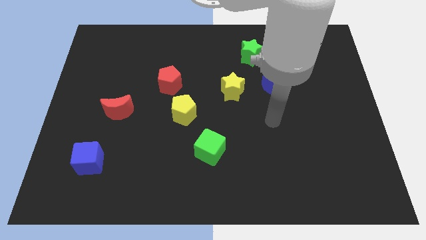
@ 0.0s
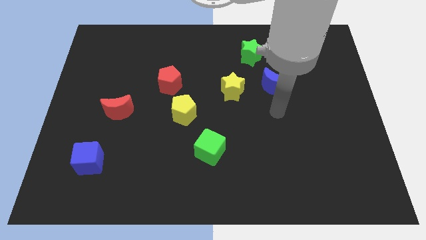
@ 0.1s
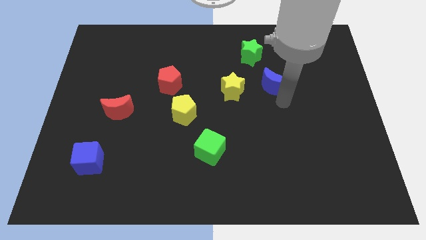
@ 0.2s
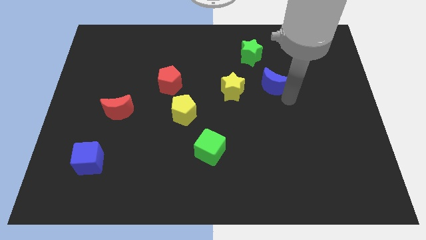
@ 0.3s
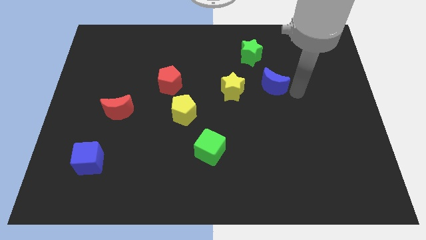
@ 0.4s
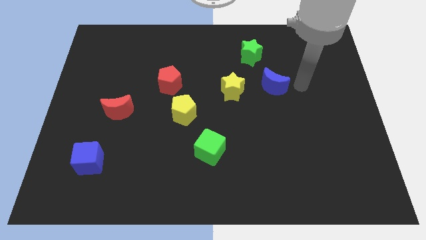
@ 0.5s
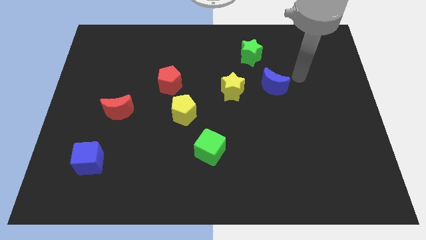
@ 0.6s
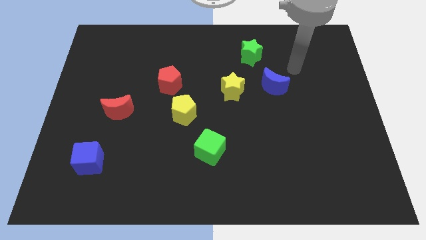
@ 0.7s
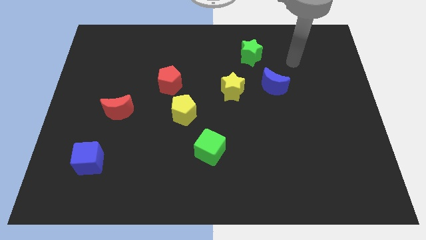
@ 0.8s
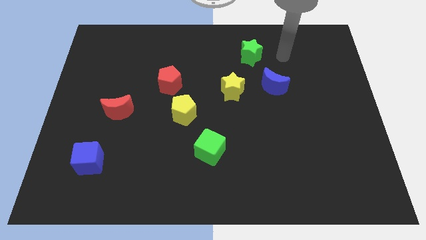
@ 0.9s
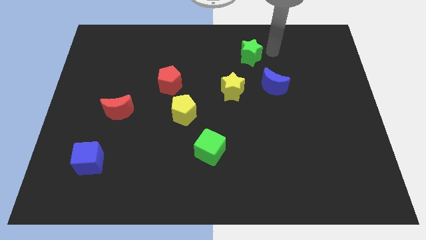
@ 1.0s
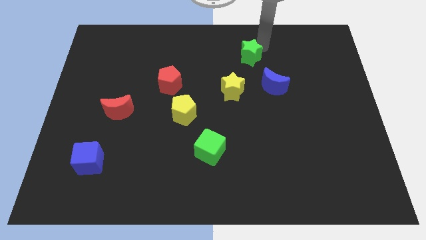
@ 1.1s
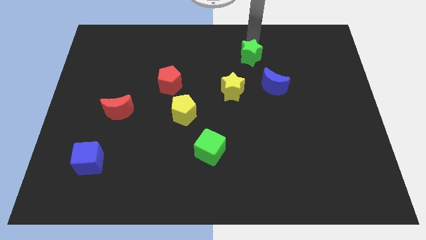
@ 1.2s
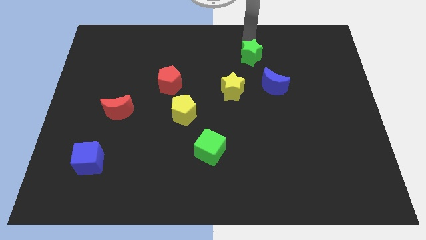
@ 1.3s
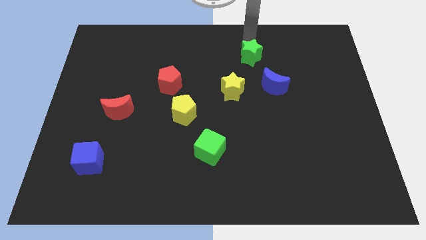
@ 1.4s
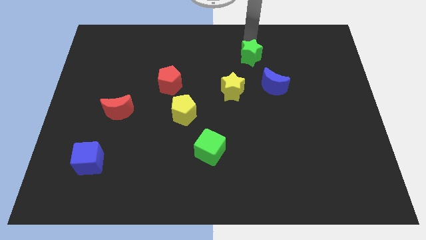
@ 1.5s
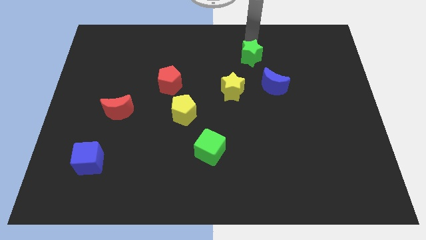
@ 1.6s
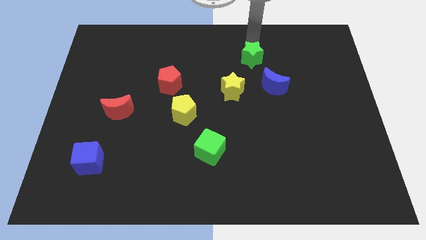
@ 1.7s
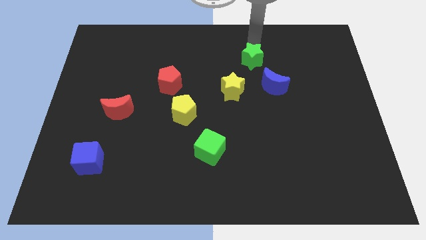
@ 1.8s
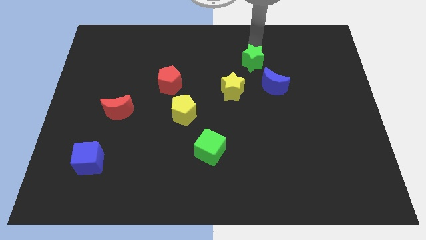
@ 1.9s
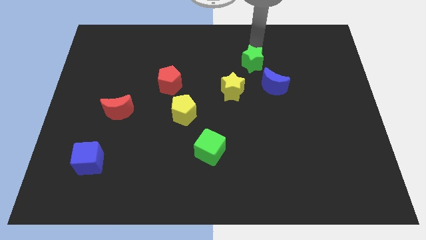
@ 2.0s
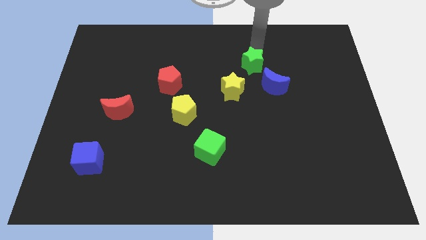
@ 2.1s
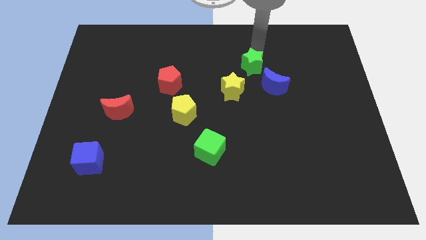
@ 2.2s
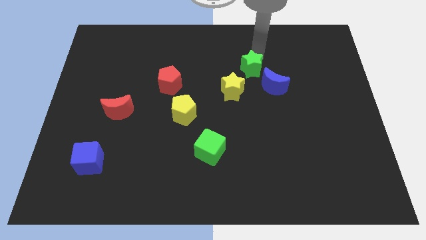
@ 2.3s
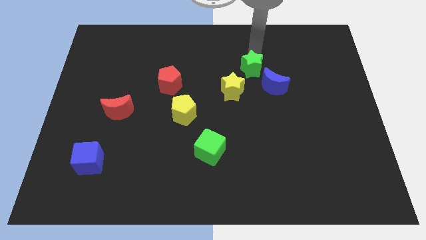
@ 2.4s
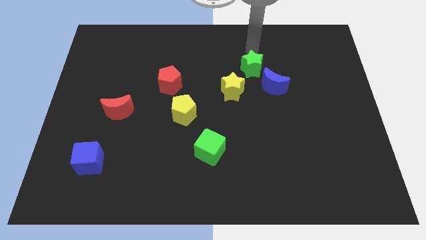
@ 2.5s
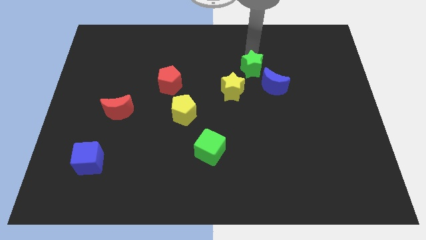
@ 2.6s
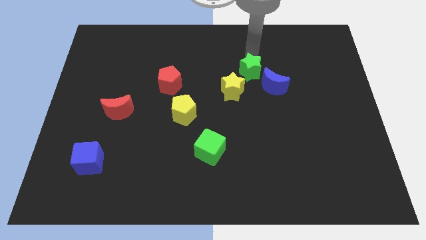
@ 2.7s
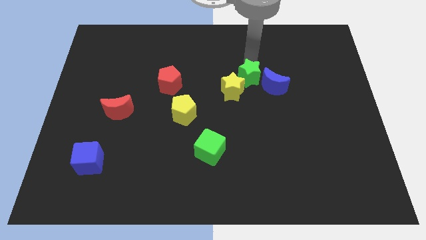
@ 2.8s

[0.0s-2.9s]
slightly slide the green star down

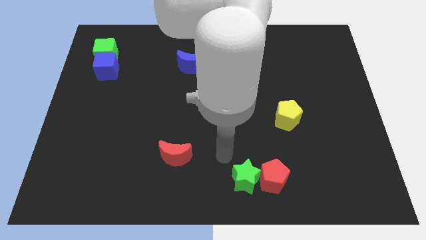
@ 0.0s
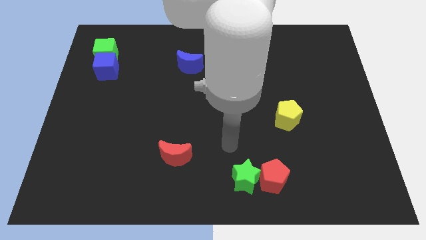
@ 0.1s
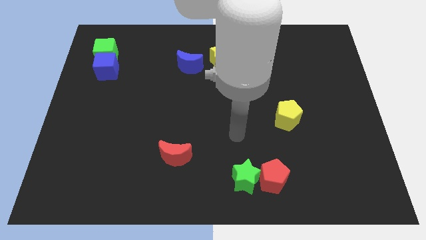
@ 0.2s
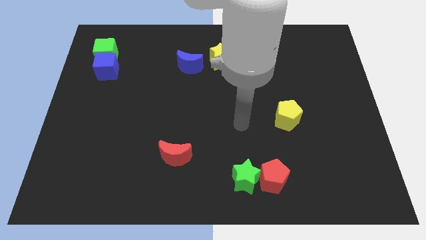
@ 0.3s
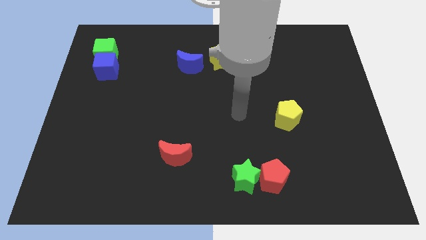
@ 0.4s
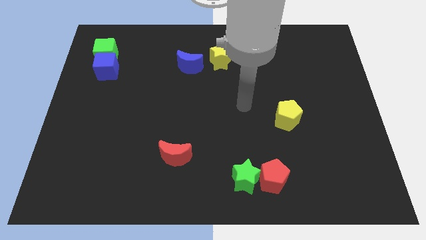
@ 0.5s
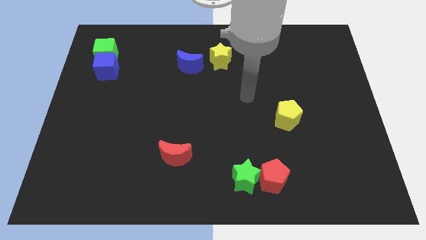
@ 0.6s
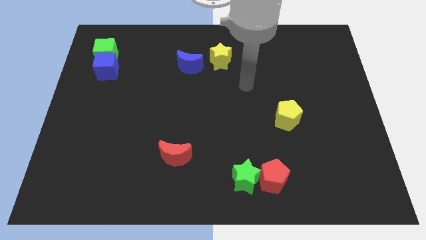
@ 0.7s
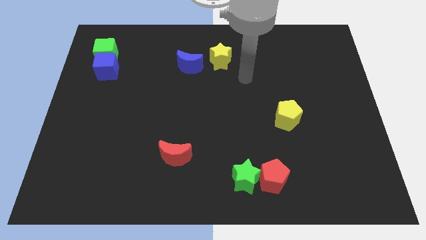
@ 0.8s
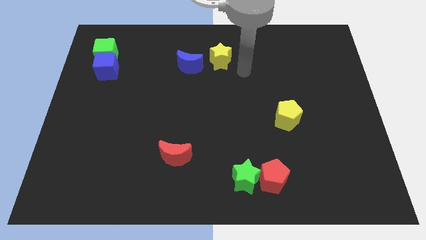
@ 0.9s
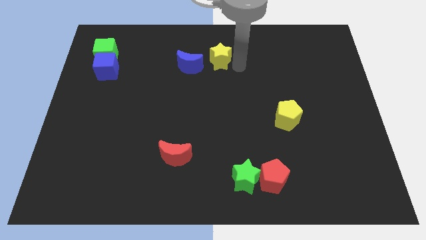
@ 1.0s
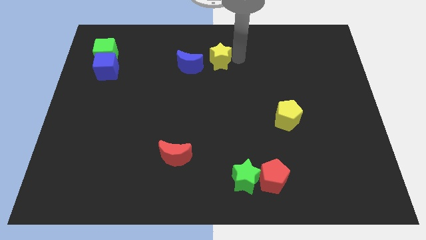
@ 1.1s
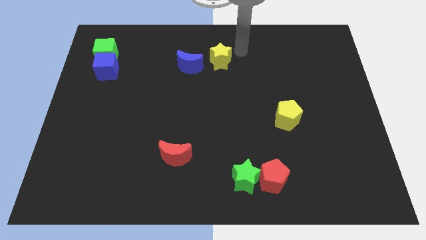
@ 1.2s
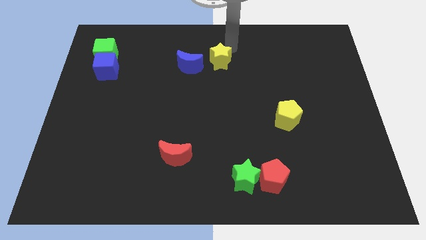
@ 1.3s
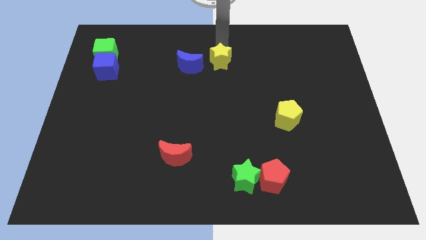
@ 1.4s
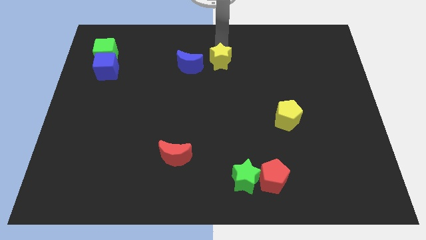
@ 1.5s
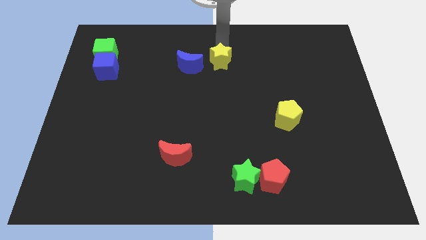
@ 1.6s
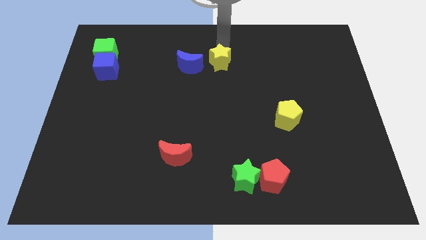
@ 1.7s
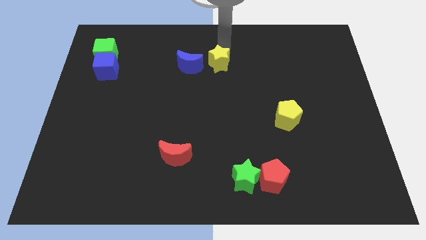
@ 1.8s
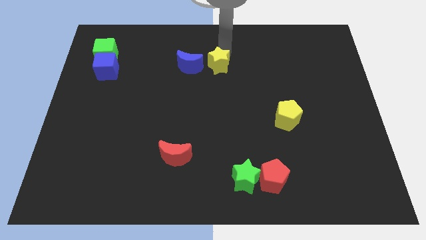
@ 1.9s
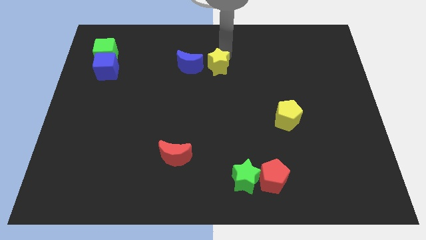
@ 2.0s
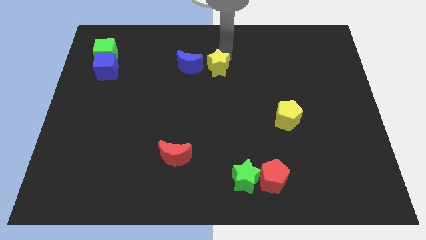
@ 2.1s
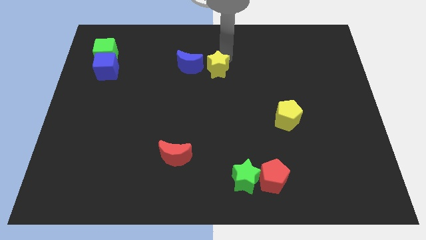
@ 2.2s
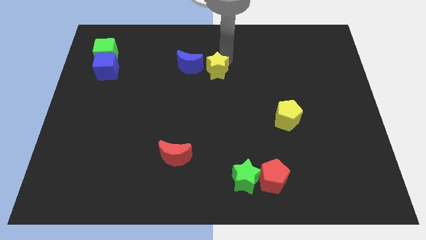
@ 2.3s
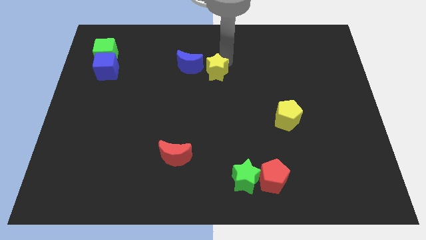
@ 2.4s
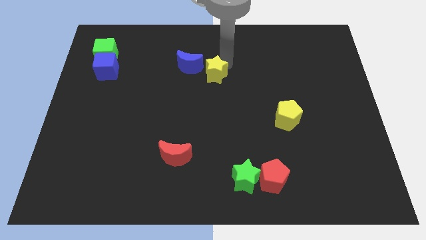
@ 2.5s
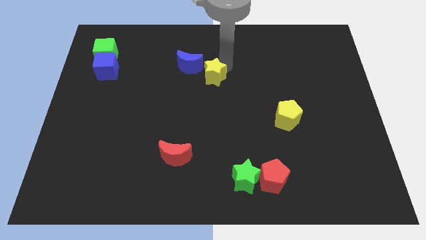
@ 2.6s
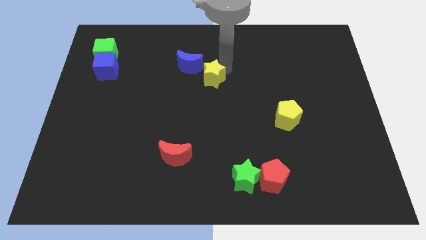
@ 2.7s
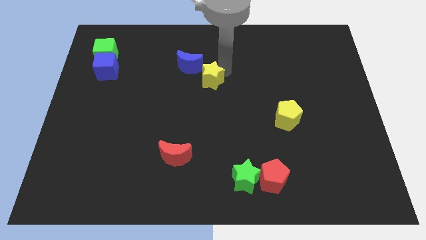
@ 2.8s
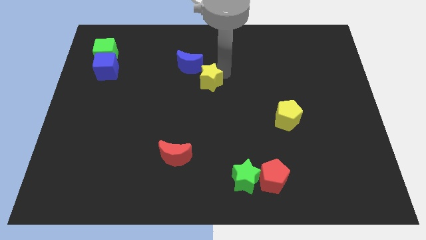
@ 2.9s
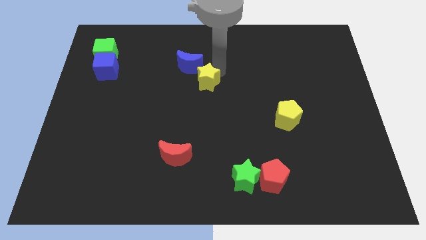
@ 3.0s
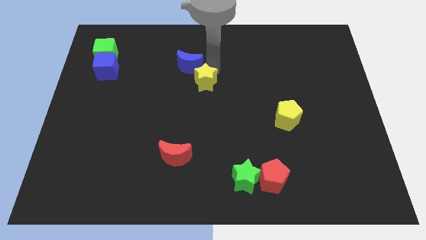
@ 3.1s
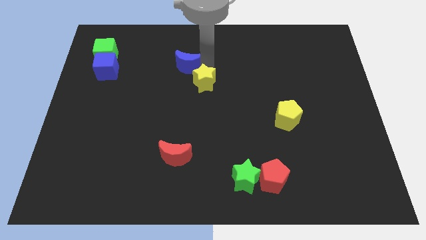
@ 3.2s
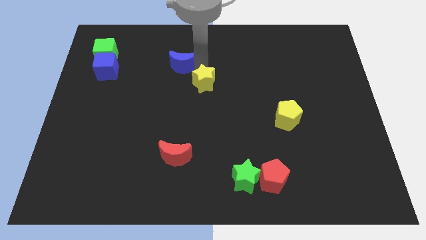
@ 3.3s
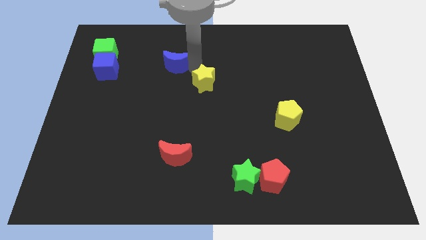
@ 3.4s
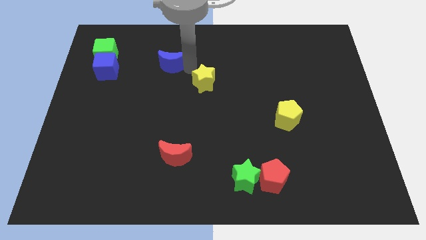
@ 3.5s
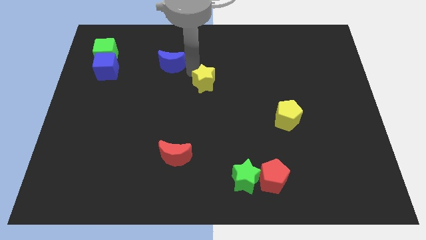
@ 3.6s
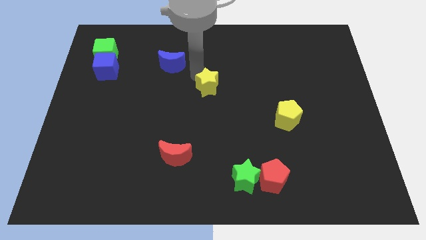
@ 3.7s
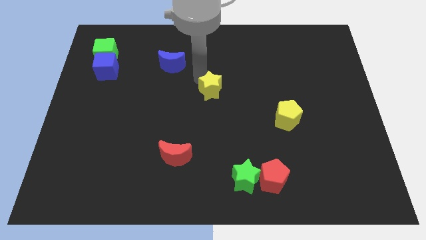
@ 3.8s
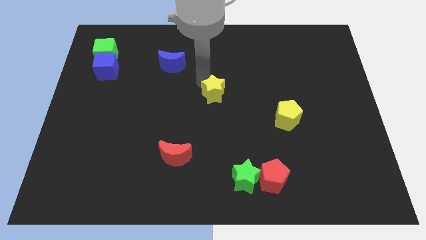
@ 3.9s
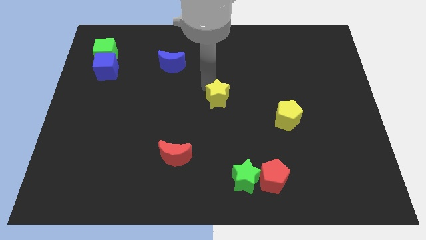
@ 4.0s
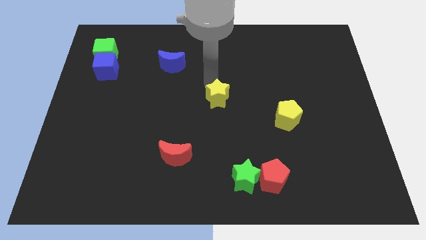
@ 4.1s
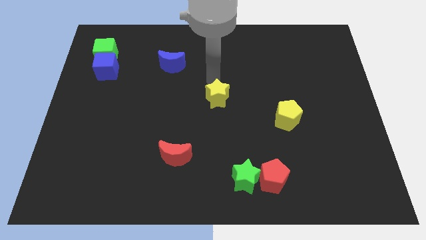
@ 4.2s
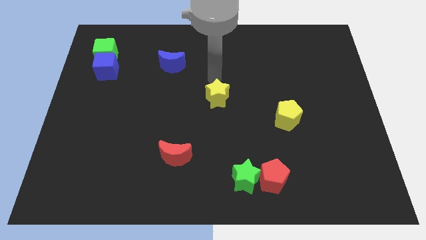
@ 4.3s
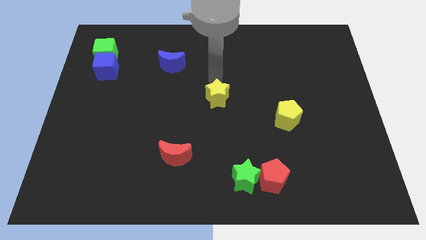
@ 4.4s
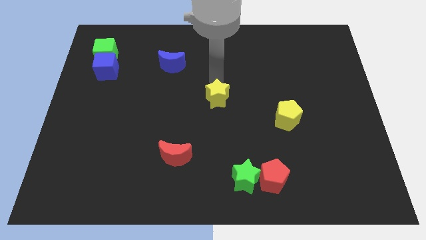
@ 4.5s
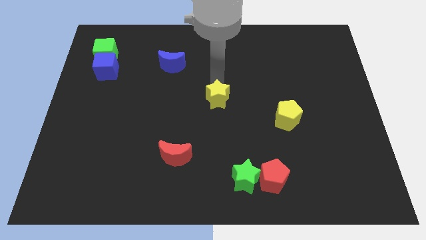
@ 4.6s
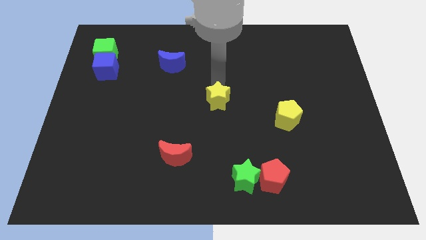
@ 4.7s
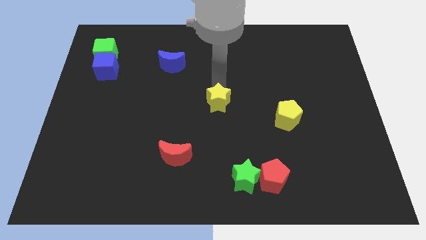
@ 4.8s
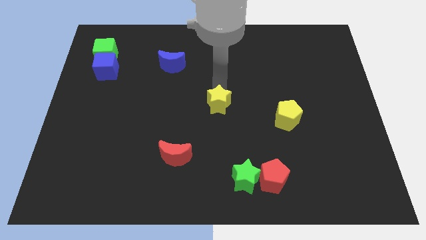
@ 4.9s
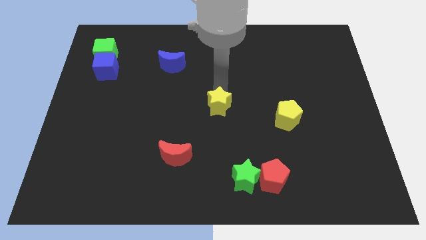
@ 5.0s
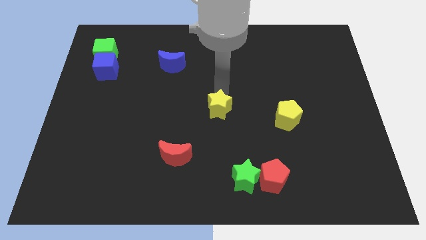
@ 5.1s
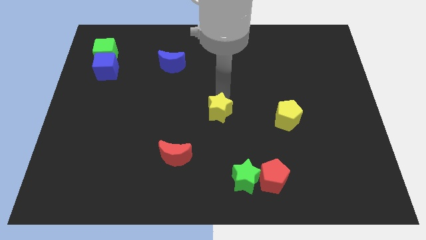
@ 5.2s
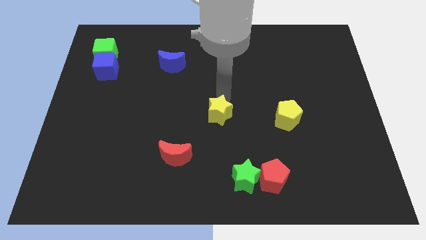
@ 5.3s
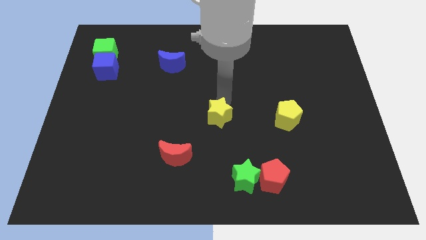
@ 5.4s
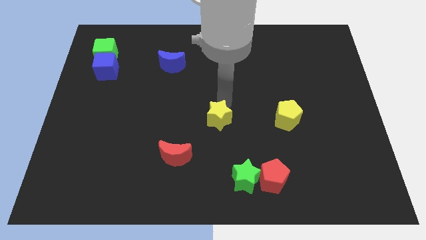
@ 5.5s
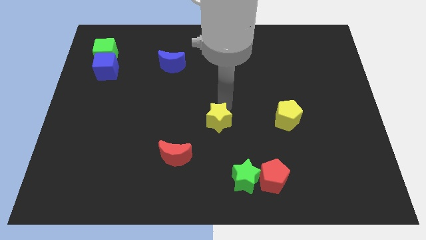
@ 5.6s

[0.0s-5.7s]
push the yellow star downwards
